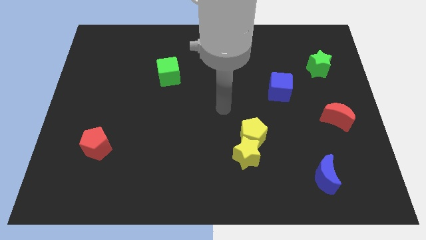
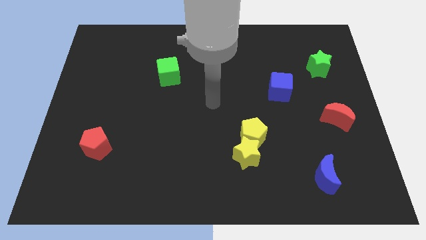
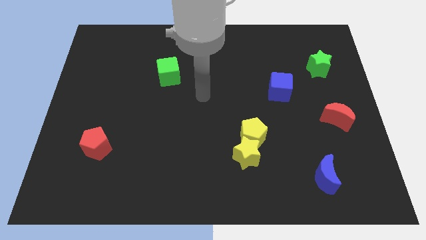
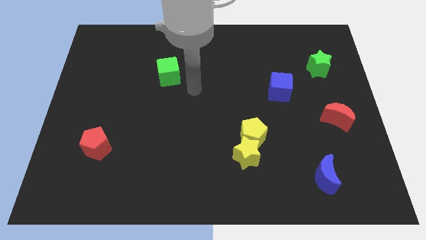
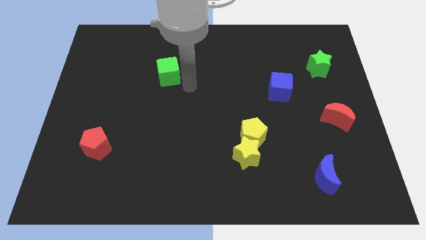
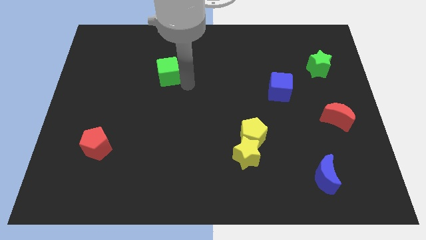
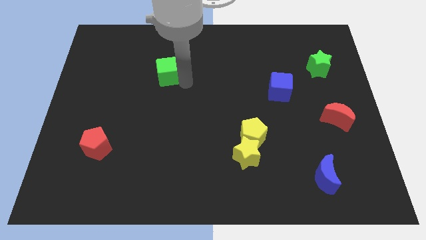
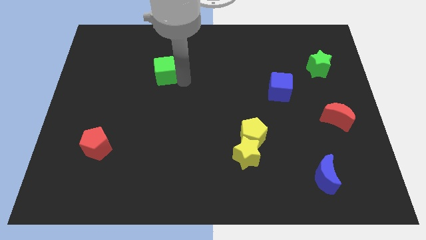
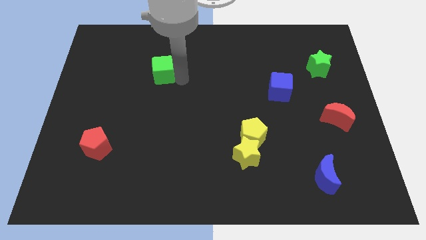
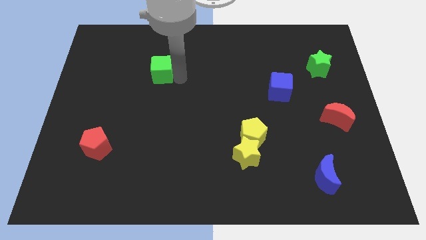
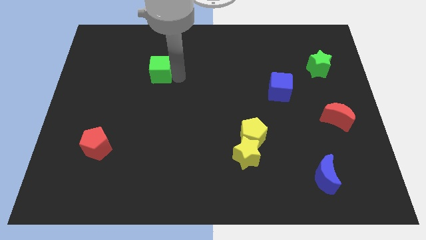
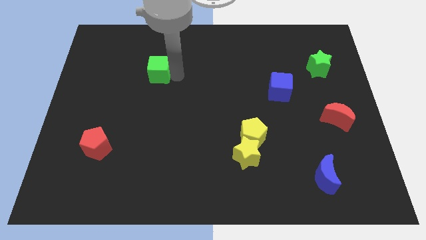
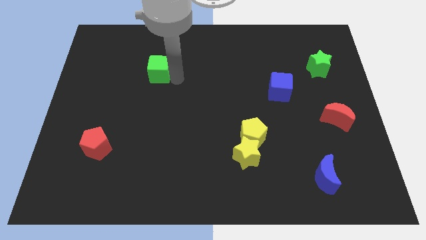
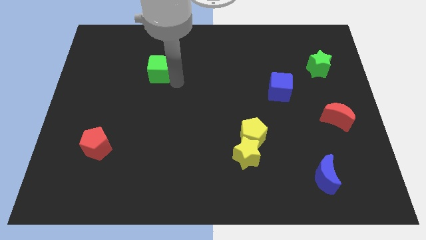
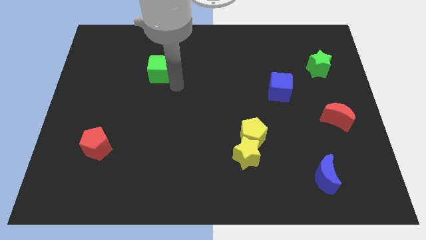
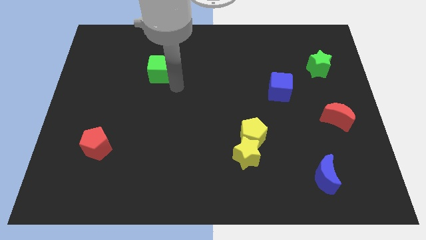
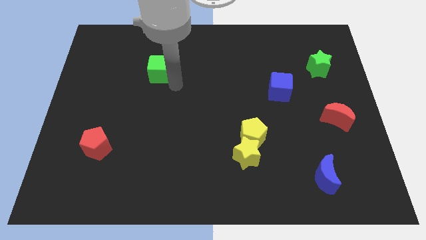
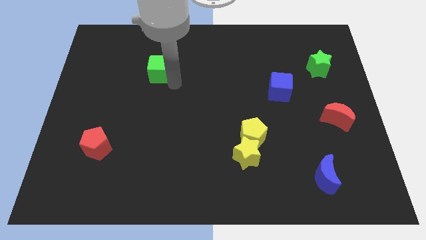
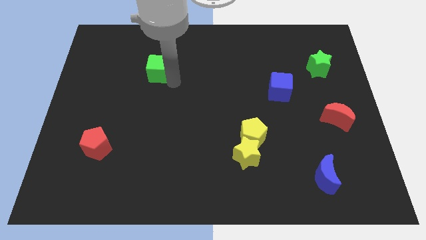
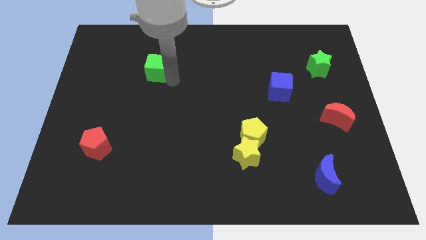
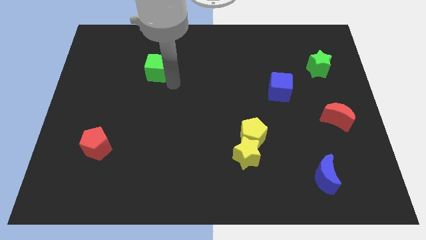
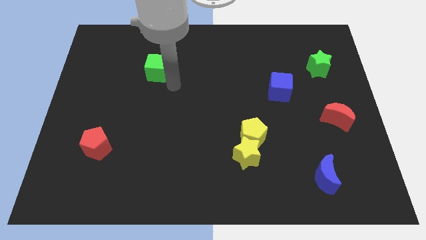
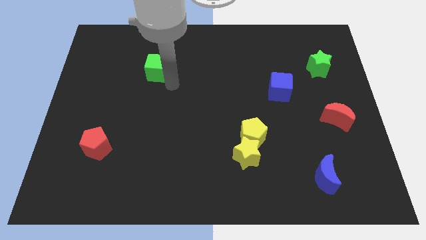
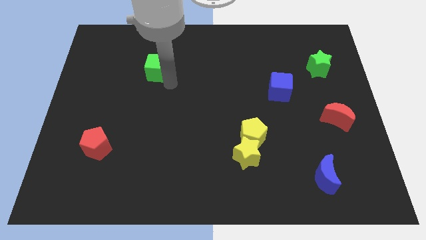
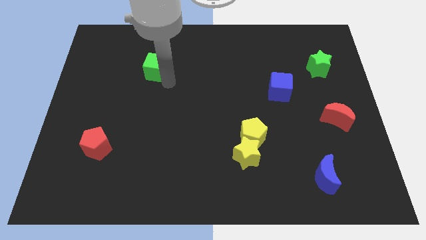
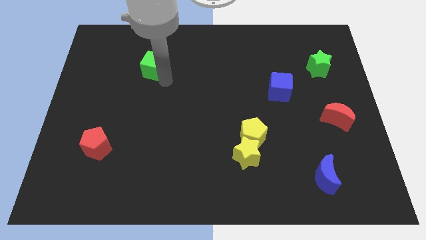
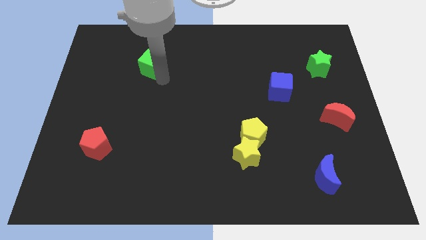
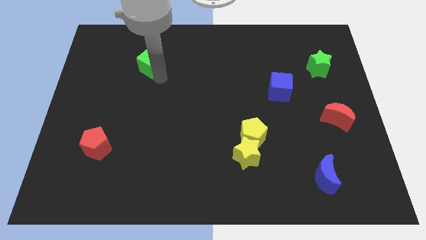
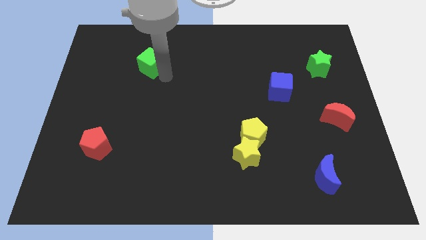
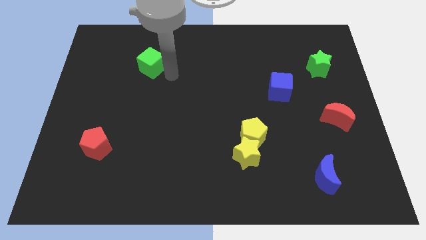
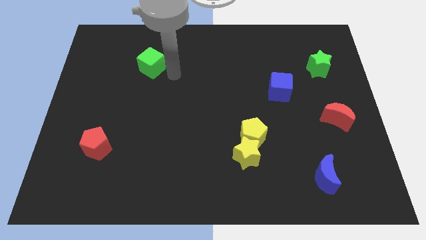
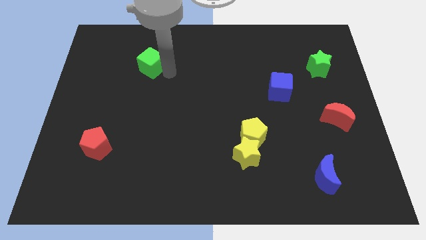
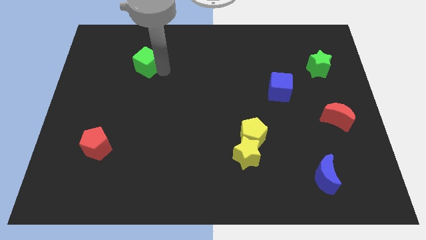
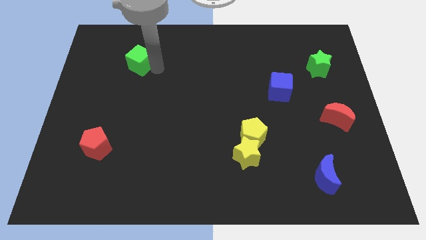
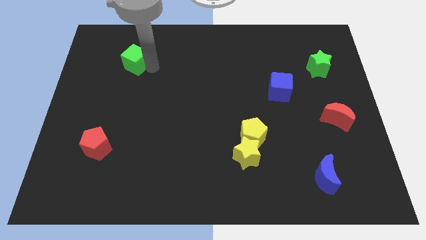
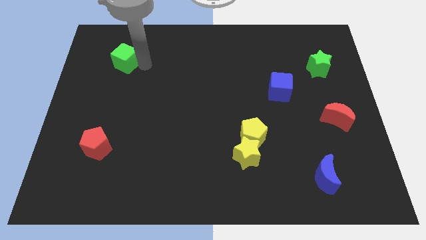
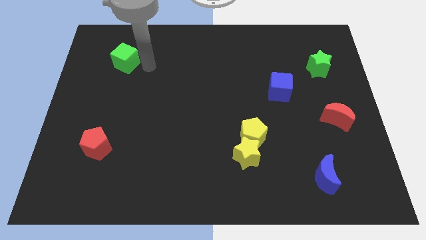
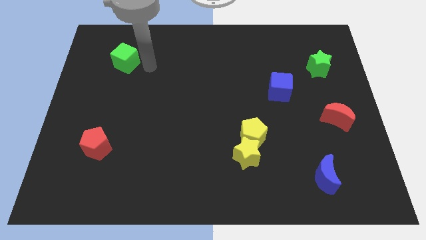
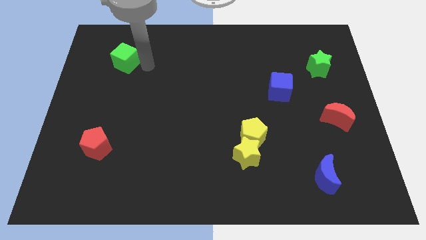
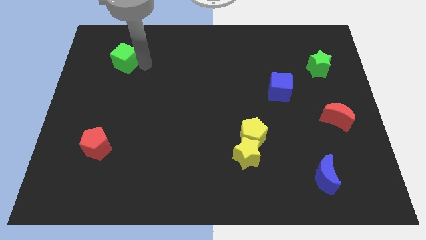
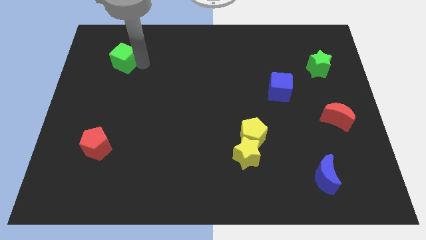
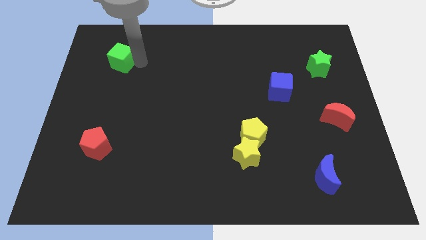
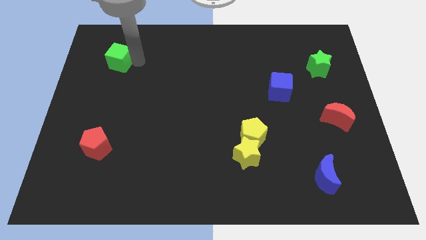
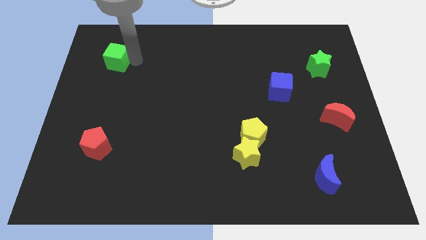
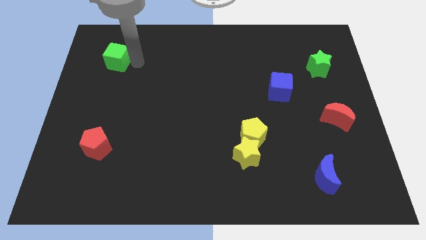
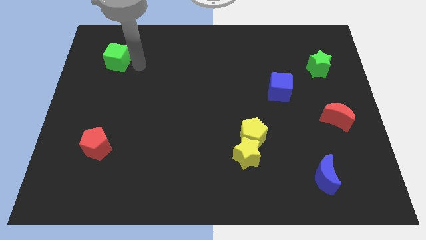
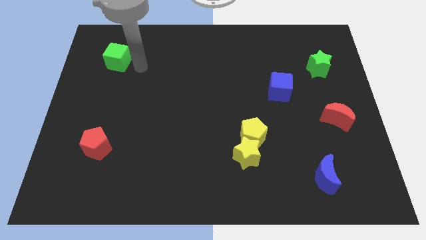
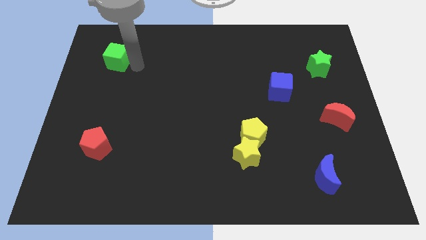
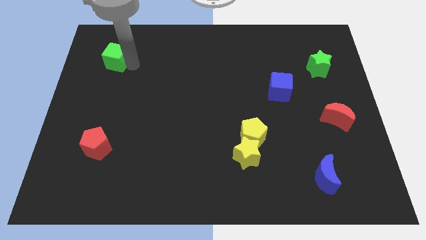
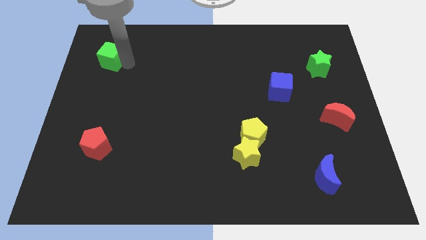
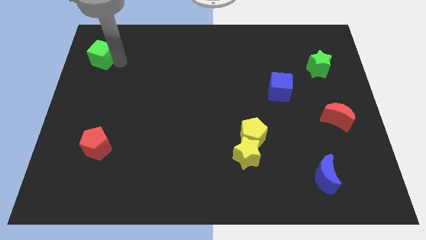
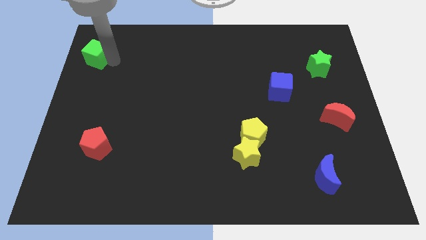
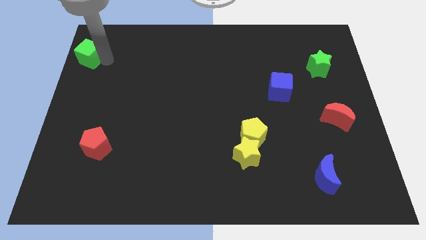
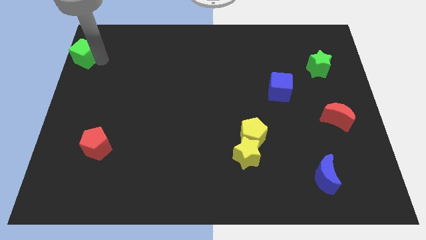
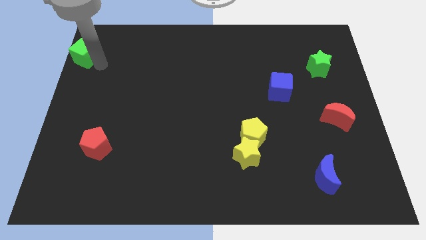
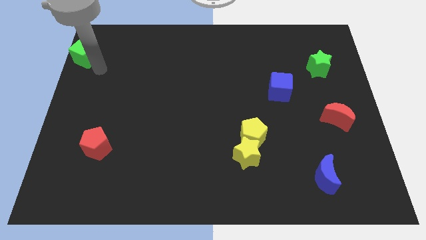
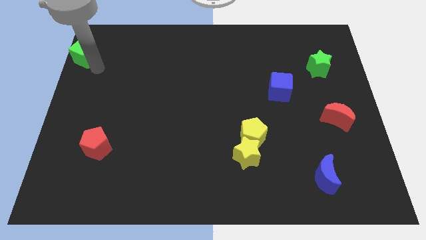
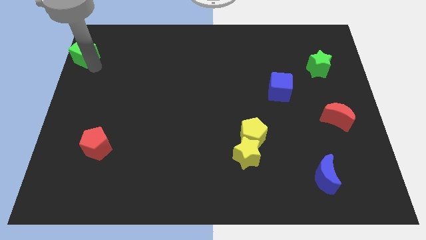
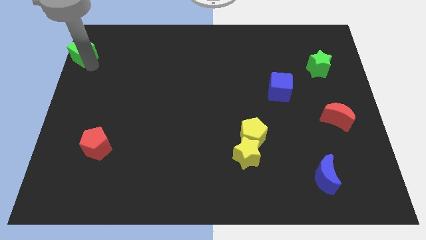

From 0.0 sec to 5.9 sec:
push the green cube to the upper left corner

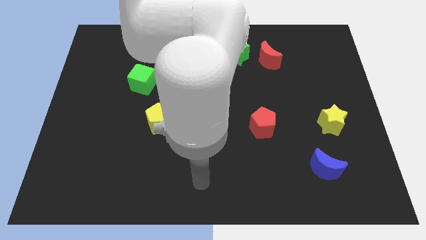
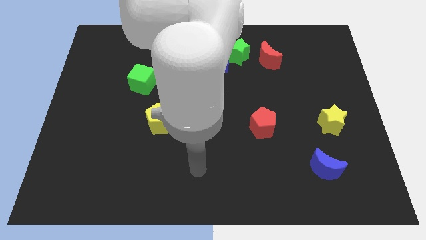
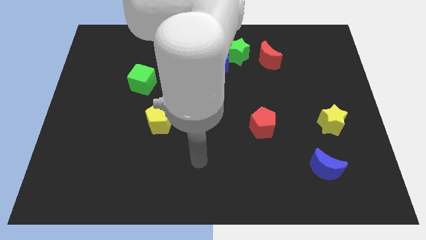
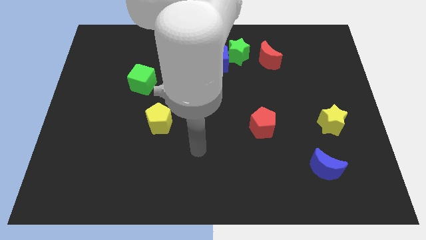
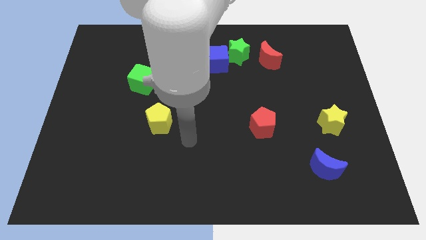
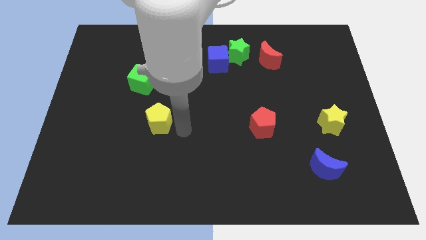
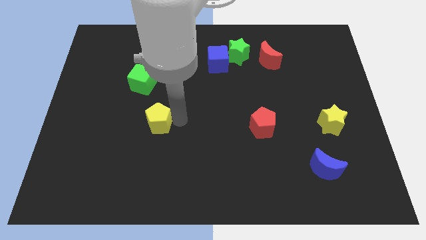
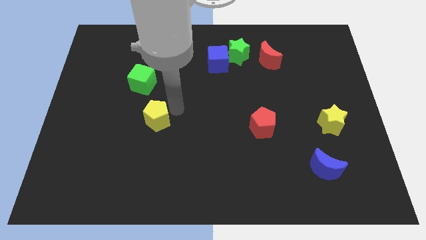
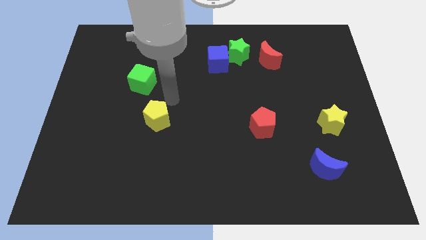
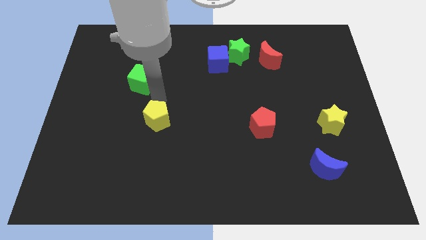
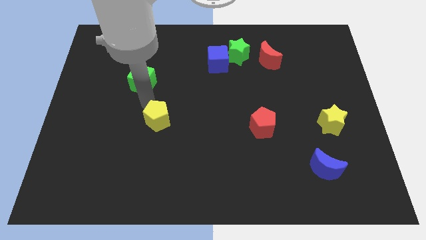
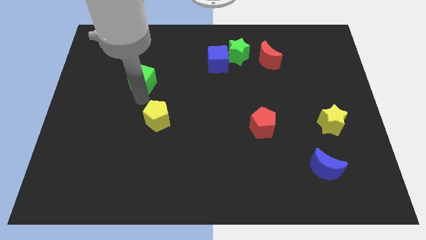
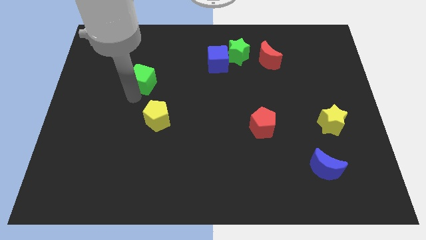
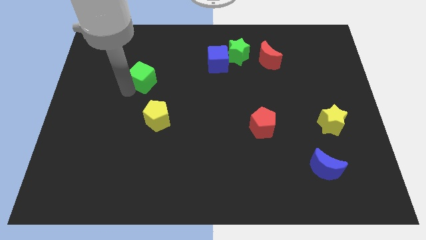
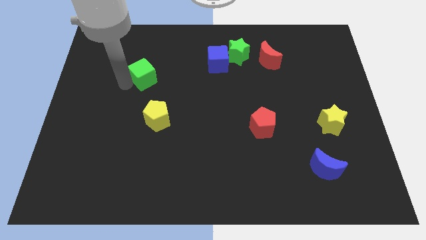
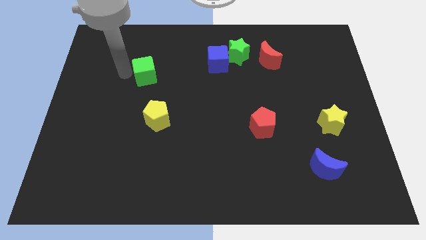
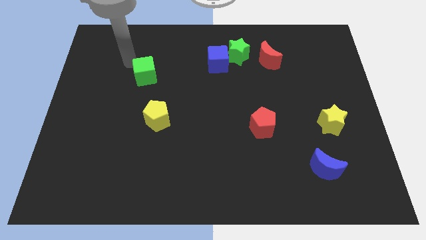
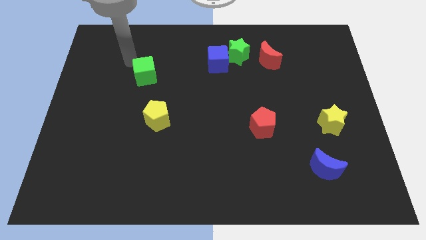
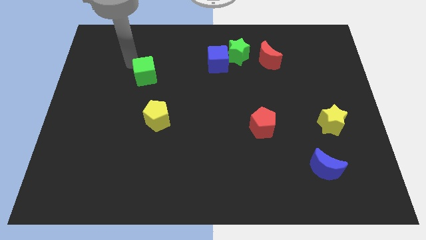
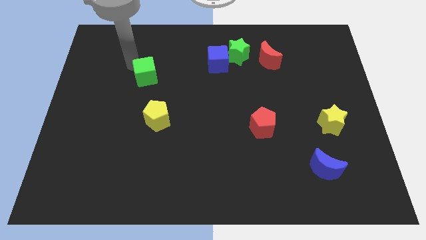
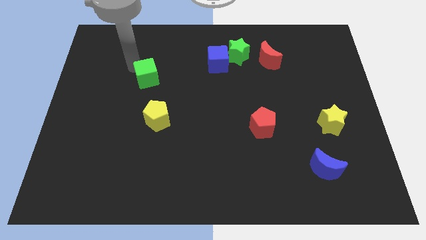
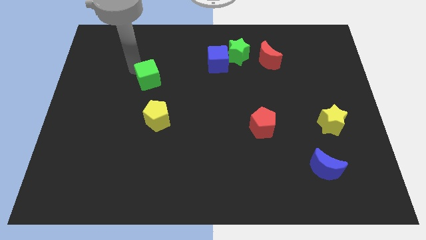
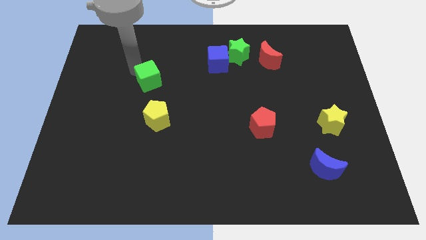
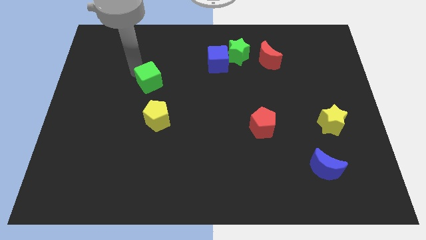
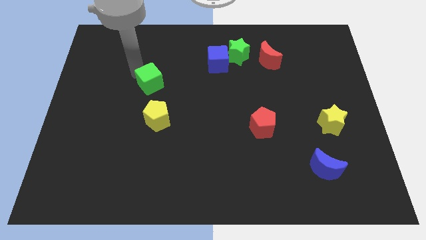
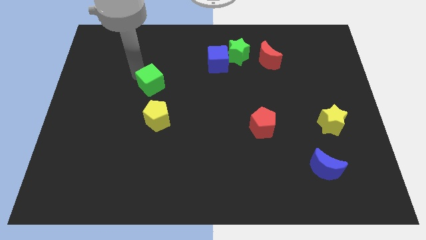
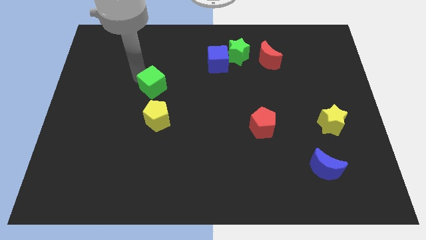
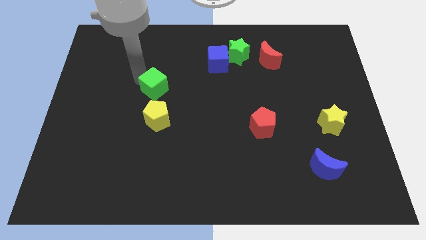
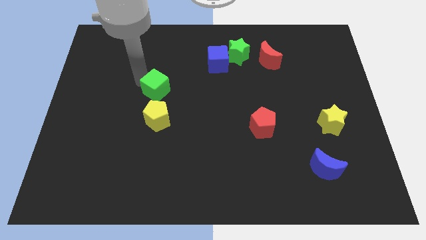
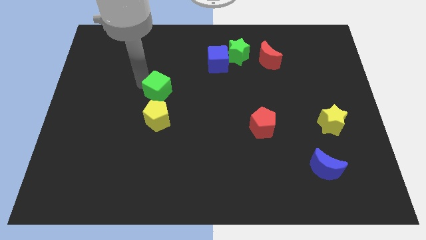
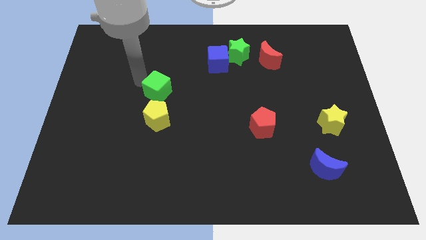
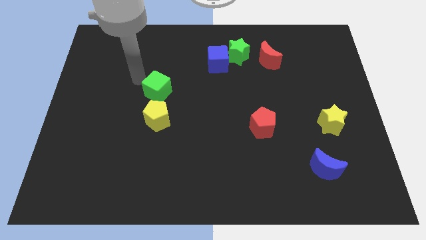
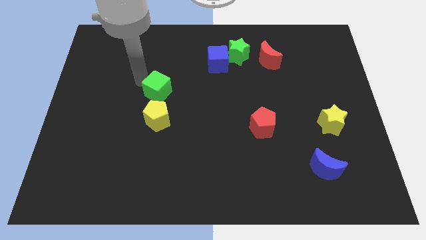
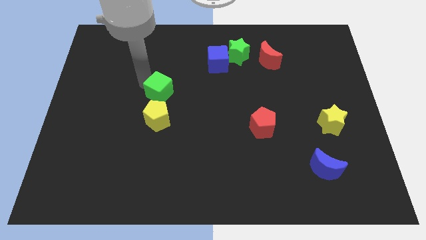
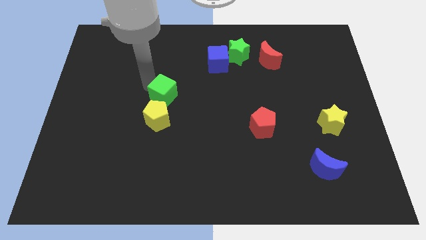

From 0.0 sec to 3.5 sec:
move the green cube to the center of the board
